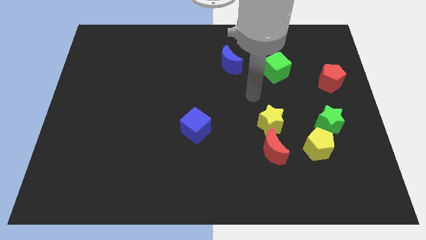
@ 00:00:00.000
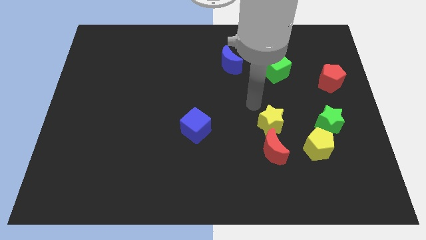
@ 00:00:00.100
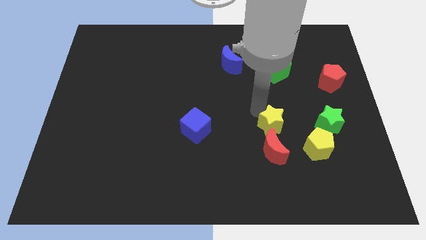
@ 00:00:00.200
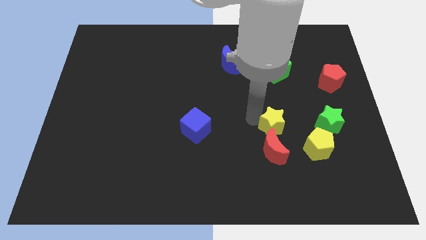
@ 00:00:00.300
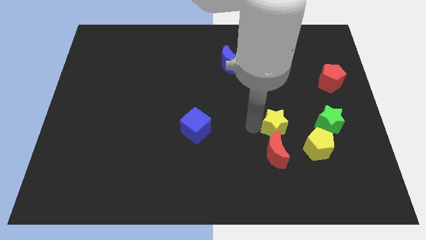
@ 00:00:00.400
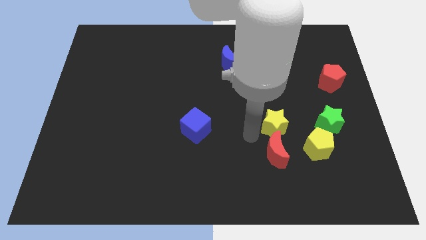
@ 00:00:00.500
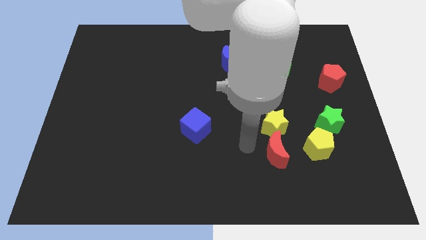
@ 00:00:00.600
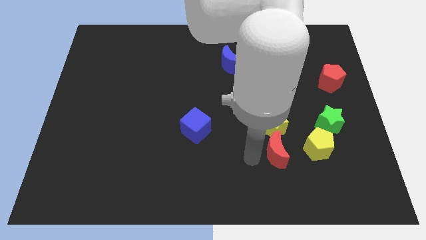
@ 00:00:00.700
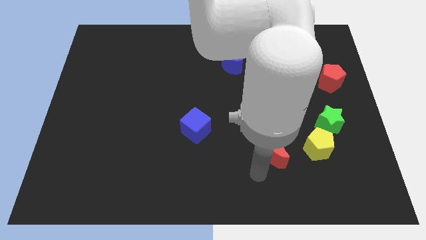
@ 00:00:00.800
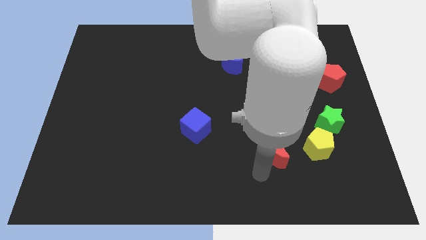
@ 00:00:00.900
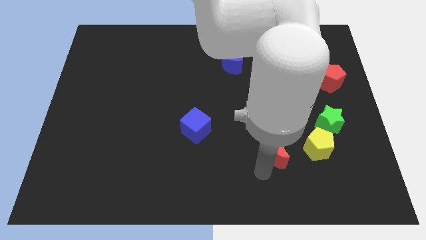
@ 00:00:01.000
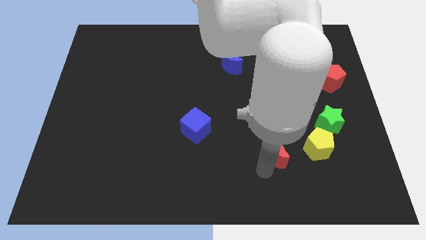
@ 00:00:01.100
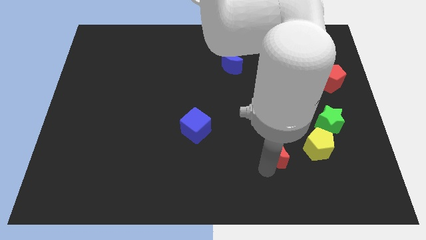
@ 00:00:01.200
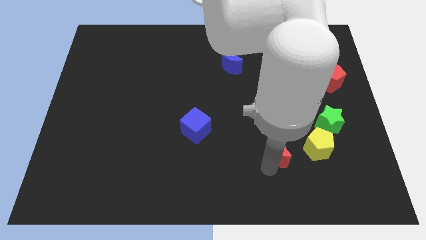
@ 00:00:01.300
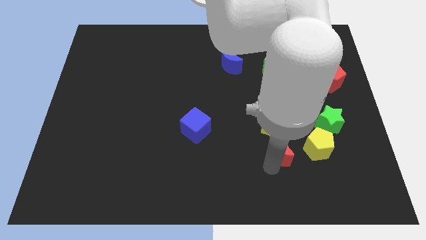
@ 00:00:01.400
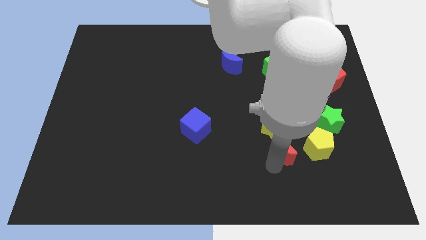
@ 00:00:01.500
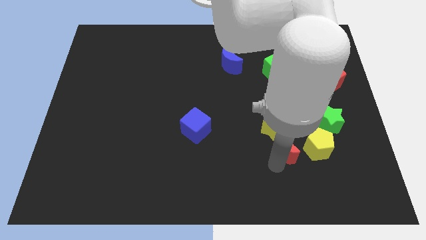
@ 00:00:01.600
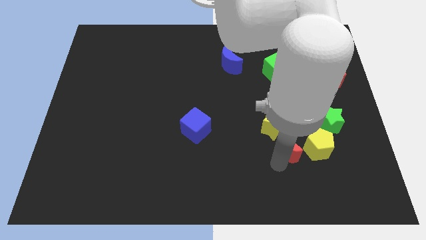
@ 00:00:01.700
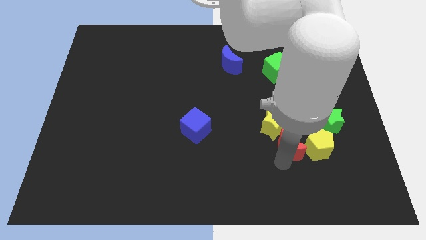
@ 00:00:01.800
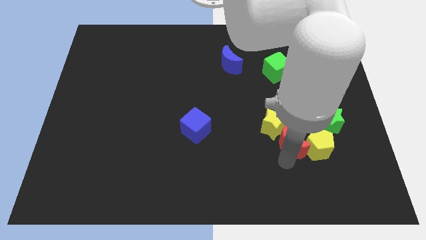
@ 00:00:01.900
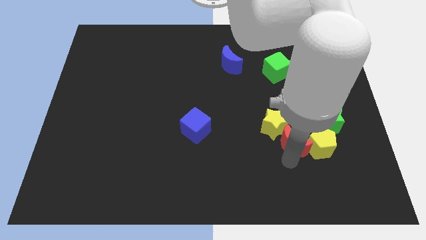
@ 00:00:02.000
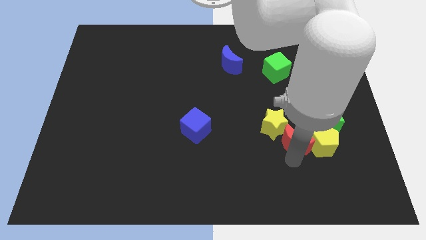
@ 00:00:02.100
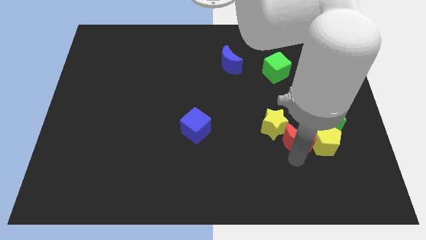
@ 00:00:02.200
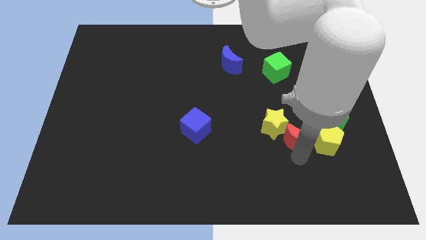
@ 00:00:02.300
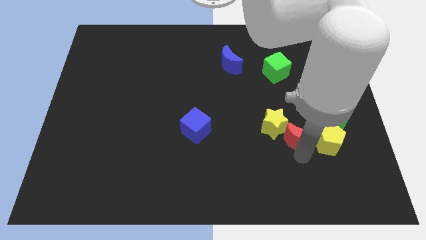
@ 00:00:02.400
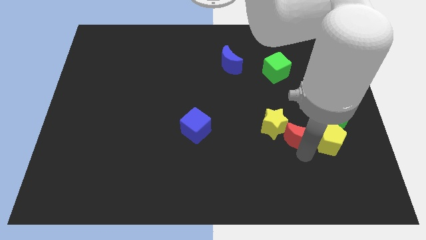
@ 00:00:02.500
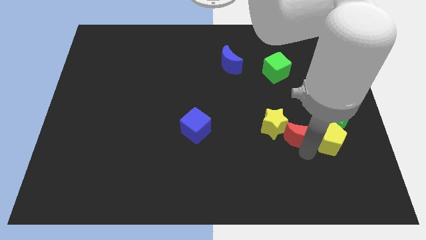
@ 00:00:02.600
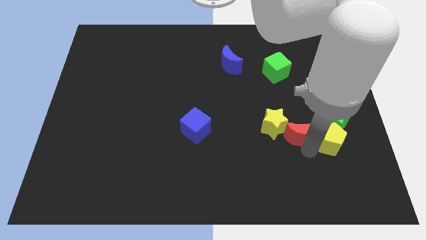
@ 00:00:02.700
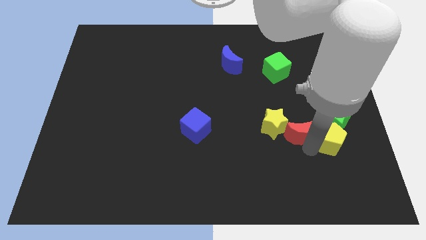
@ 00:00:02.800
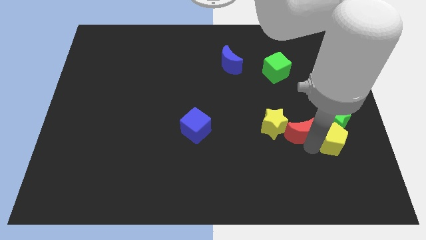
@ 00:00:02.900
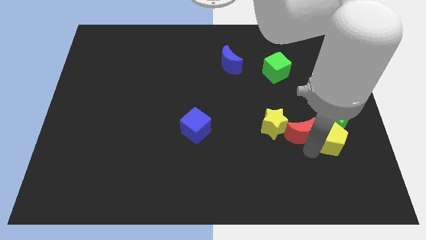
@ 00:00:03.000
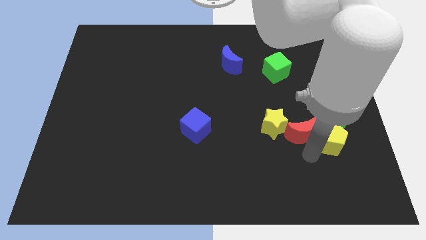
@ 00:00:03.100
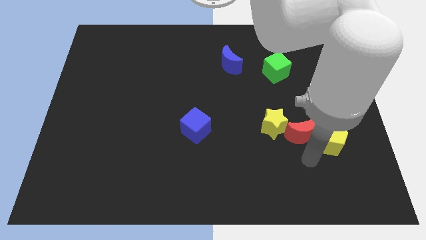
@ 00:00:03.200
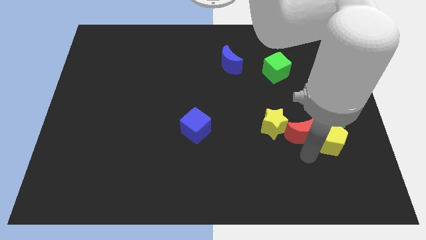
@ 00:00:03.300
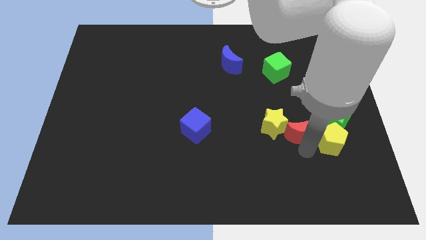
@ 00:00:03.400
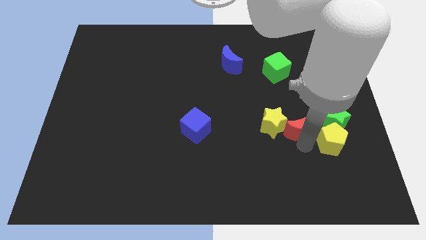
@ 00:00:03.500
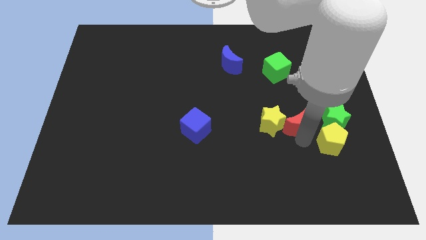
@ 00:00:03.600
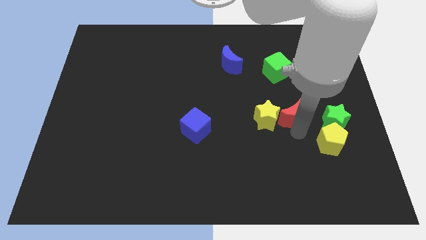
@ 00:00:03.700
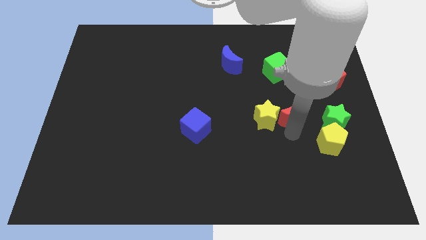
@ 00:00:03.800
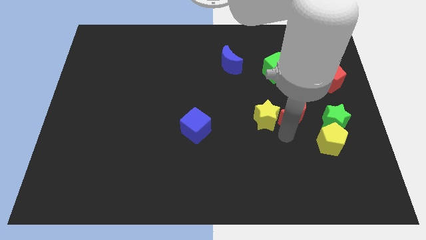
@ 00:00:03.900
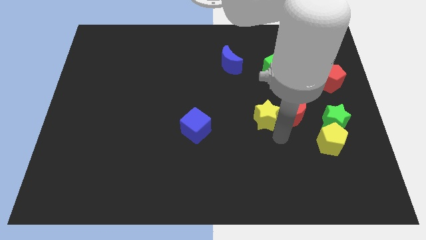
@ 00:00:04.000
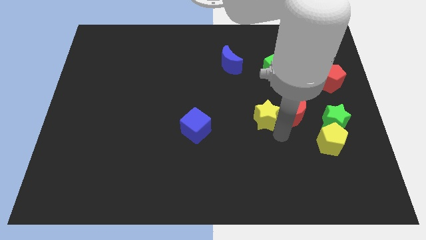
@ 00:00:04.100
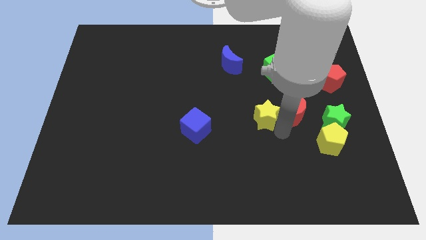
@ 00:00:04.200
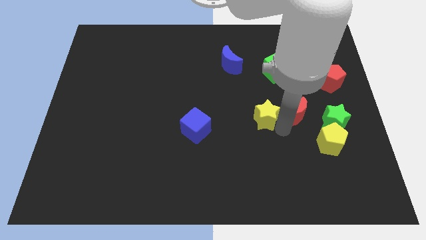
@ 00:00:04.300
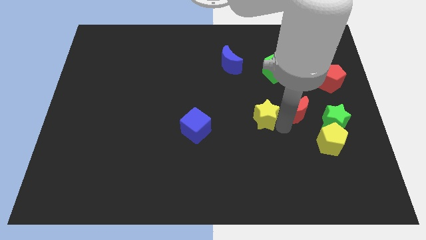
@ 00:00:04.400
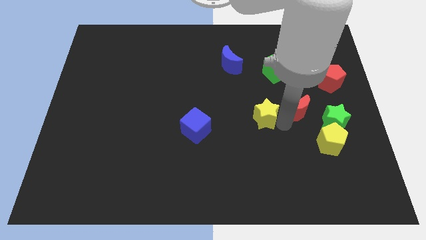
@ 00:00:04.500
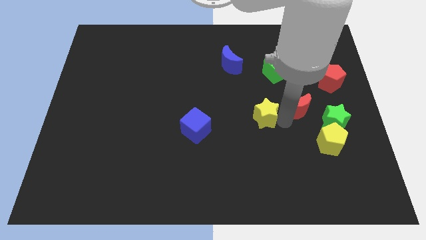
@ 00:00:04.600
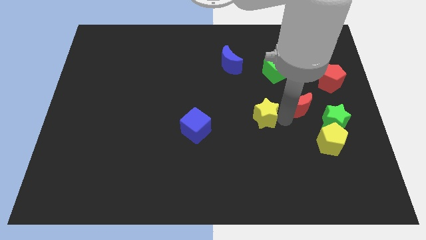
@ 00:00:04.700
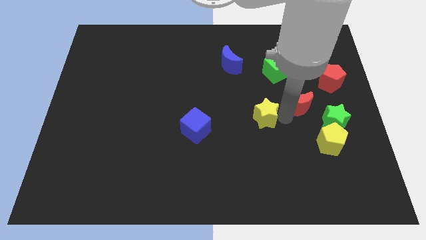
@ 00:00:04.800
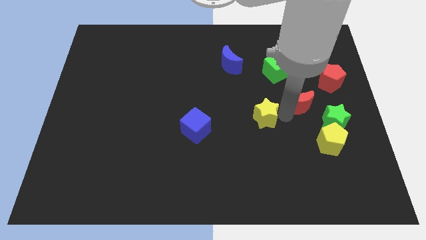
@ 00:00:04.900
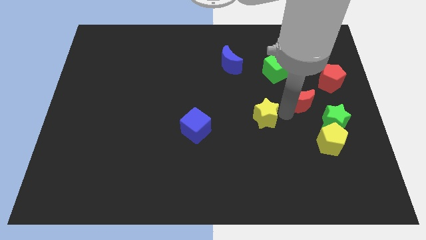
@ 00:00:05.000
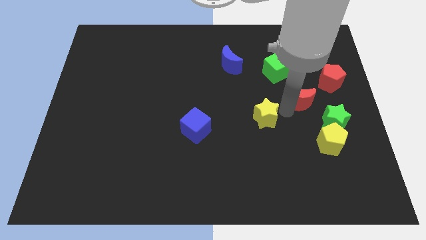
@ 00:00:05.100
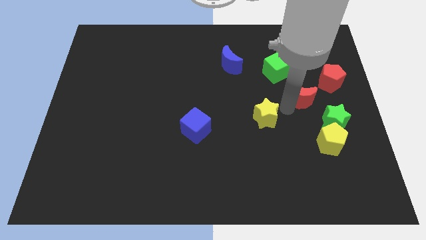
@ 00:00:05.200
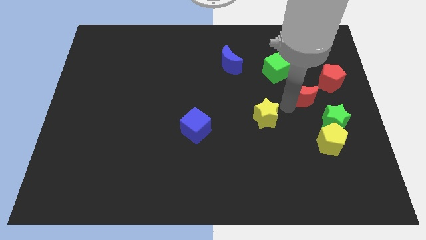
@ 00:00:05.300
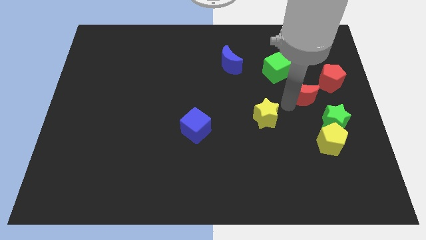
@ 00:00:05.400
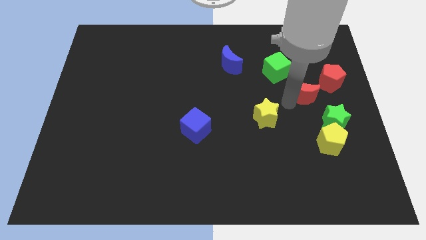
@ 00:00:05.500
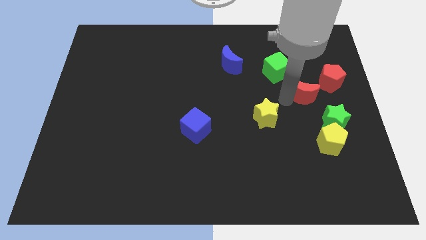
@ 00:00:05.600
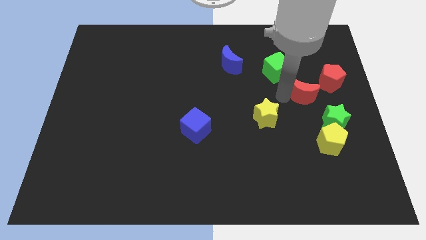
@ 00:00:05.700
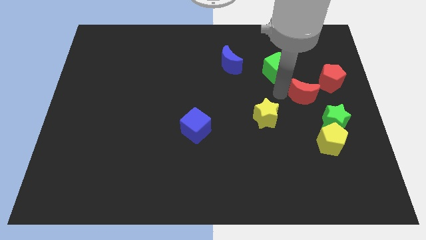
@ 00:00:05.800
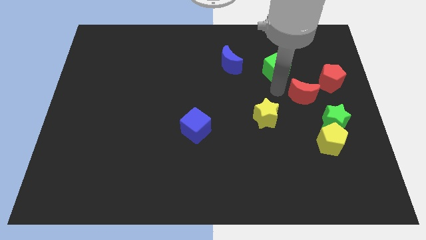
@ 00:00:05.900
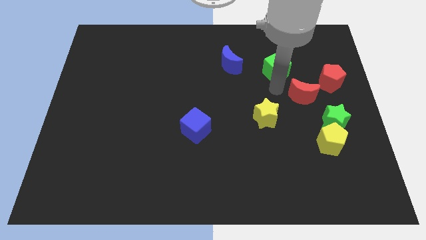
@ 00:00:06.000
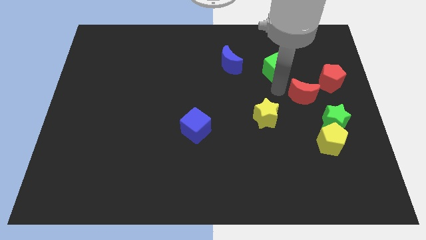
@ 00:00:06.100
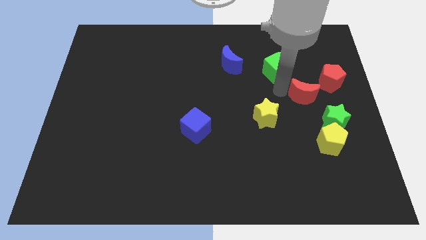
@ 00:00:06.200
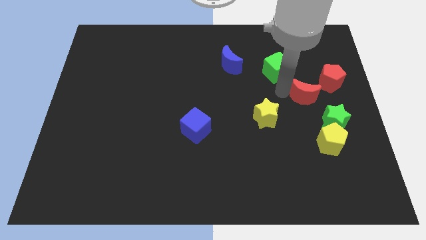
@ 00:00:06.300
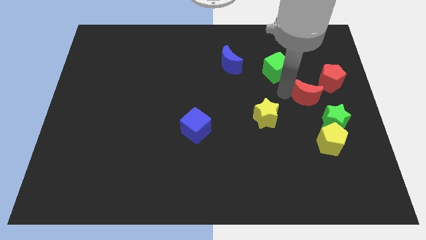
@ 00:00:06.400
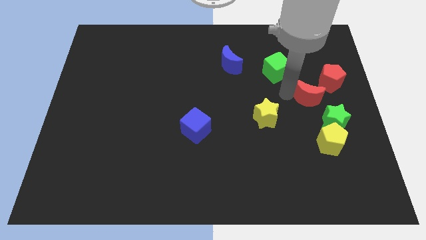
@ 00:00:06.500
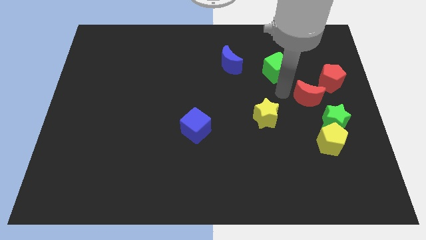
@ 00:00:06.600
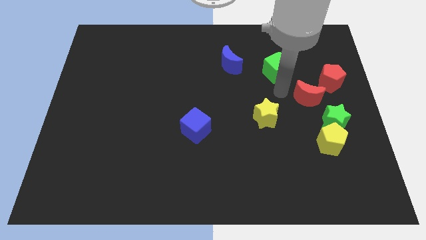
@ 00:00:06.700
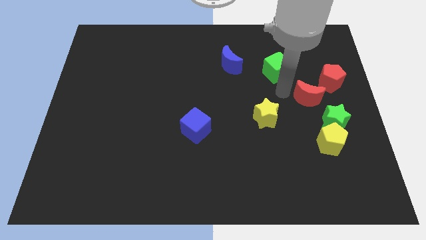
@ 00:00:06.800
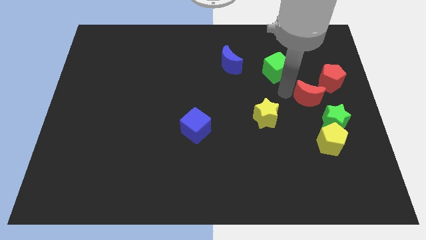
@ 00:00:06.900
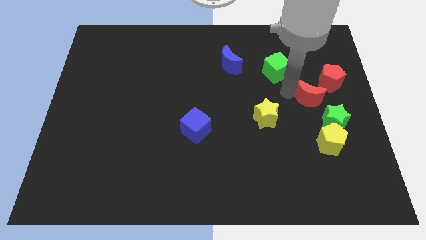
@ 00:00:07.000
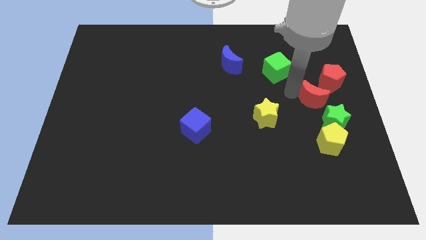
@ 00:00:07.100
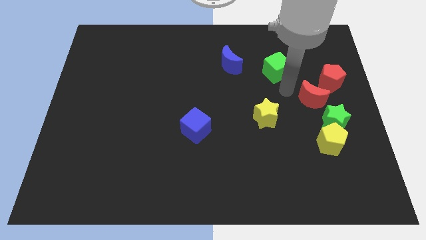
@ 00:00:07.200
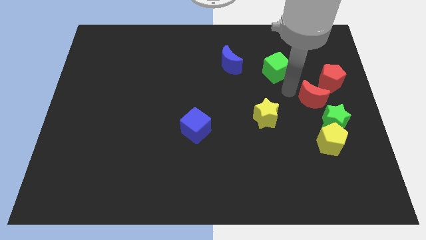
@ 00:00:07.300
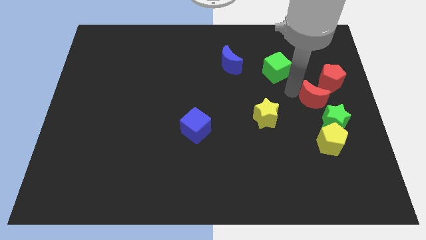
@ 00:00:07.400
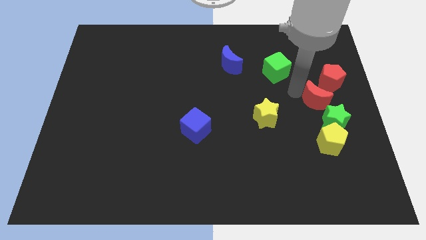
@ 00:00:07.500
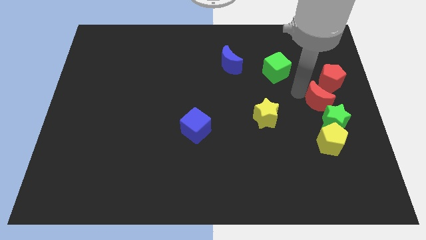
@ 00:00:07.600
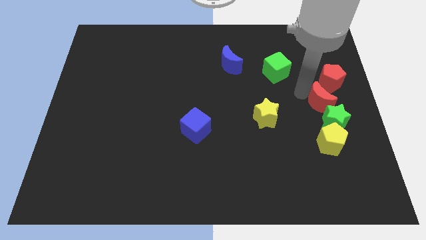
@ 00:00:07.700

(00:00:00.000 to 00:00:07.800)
slide the red moon to the right side of the board
